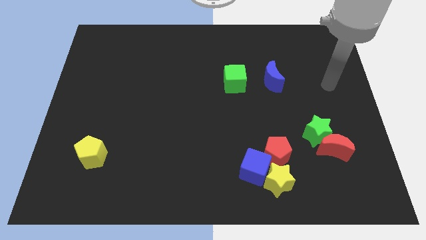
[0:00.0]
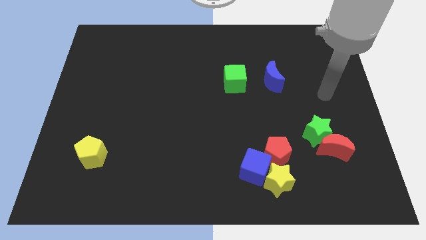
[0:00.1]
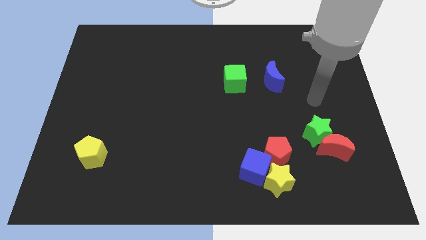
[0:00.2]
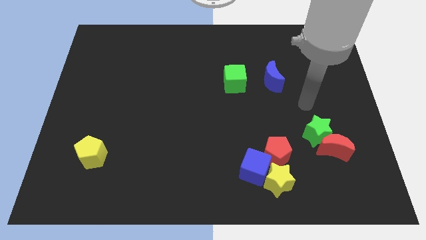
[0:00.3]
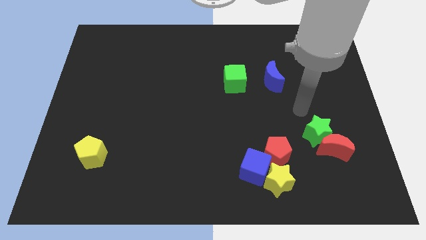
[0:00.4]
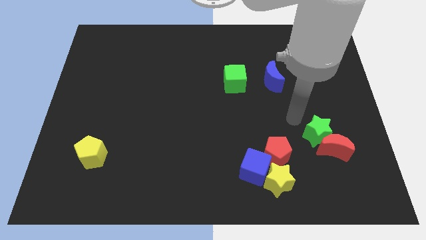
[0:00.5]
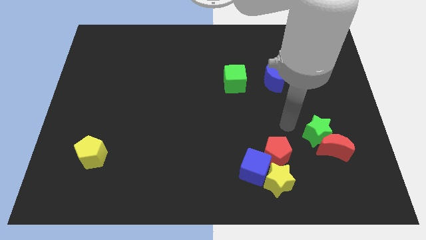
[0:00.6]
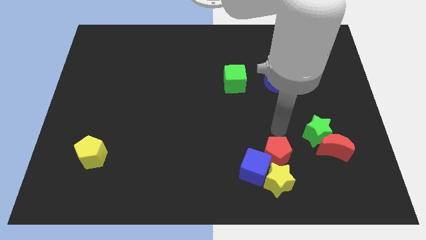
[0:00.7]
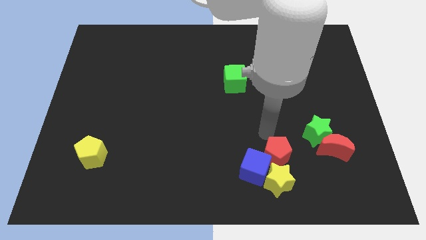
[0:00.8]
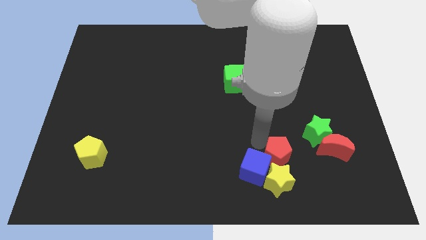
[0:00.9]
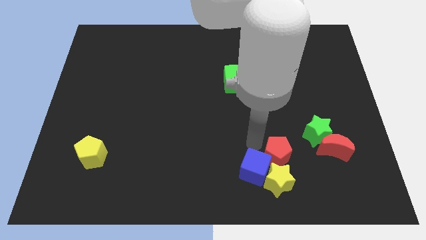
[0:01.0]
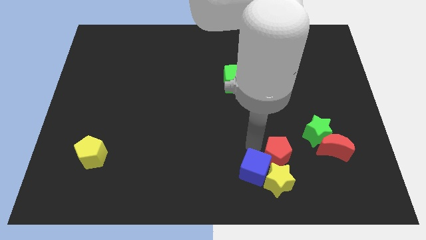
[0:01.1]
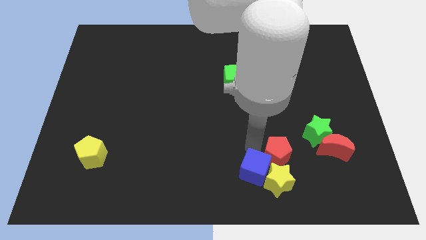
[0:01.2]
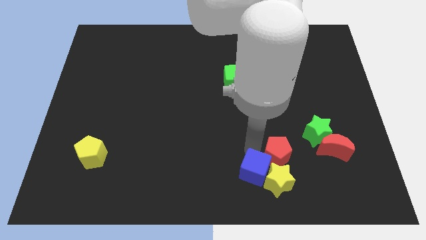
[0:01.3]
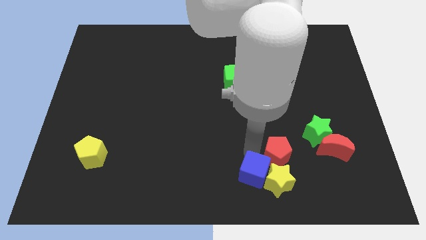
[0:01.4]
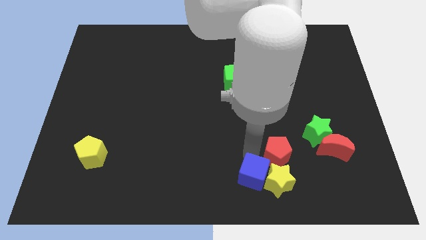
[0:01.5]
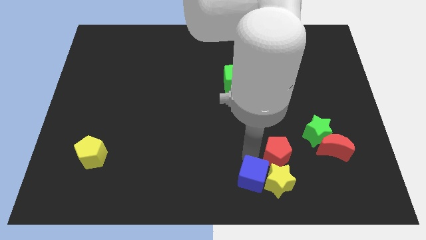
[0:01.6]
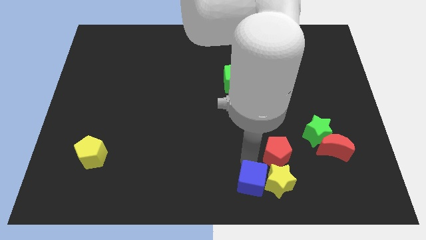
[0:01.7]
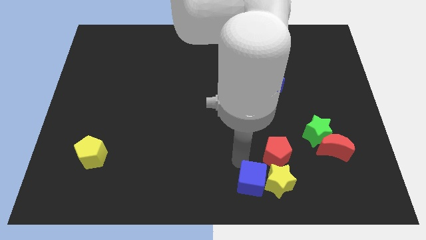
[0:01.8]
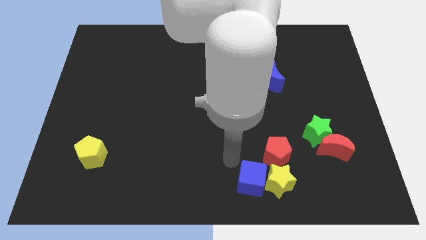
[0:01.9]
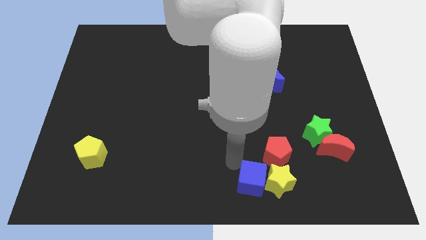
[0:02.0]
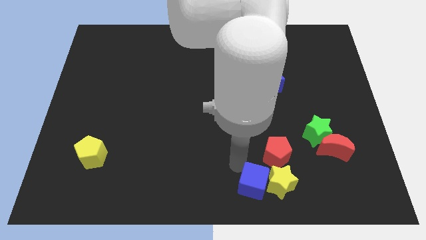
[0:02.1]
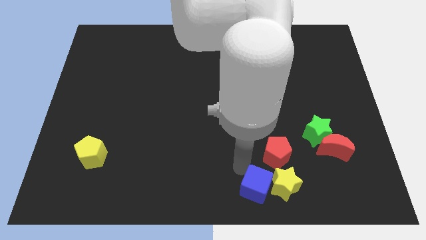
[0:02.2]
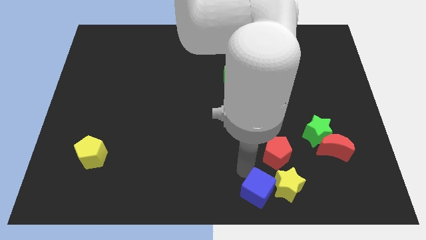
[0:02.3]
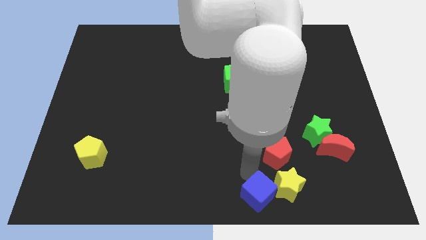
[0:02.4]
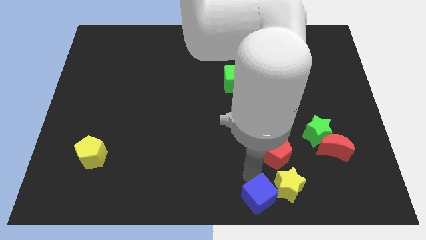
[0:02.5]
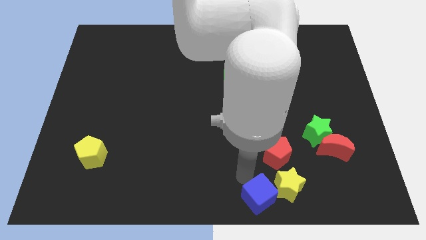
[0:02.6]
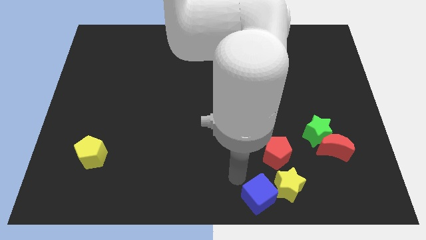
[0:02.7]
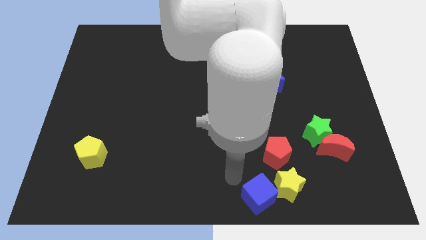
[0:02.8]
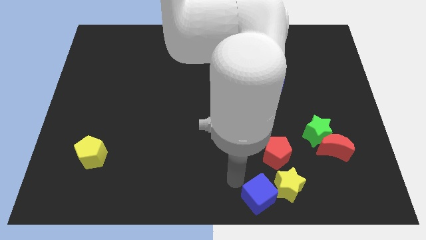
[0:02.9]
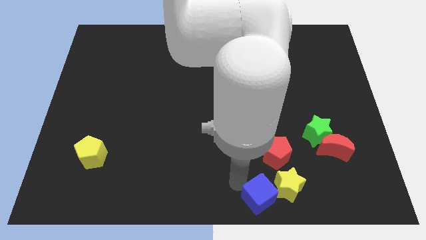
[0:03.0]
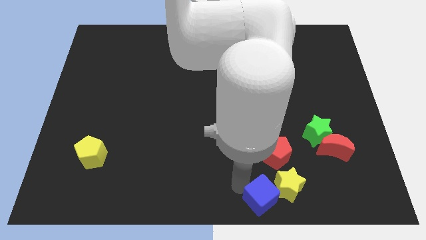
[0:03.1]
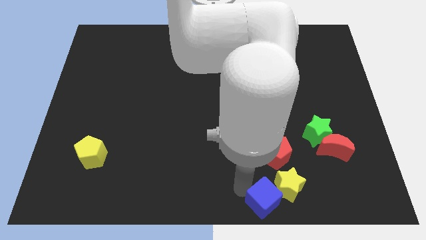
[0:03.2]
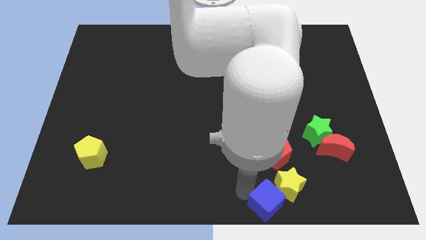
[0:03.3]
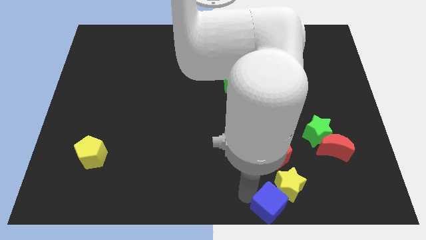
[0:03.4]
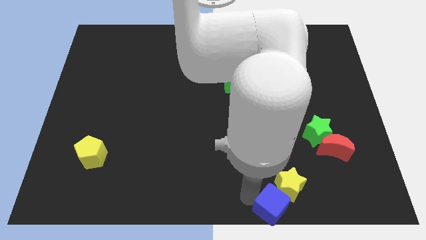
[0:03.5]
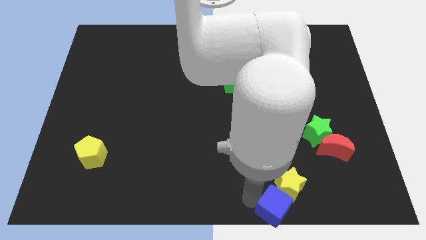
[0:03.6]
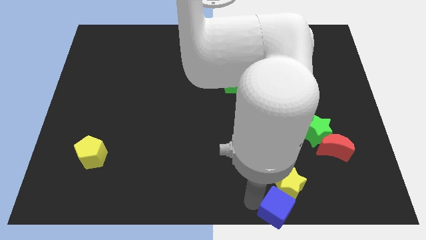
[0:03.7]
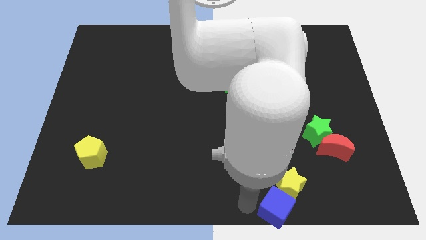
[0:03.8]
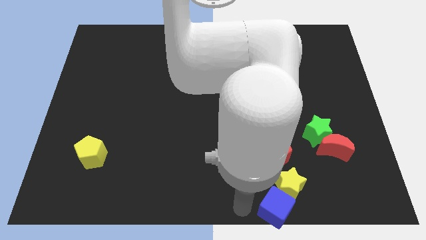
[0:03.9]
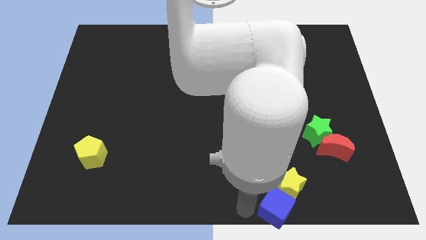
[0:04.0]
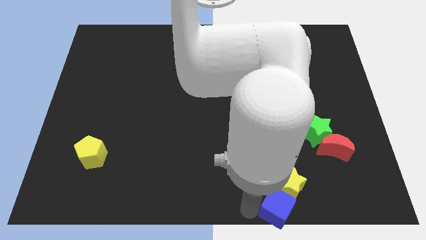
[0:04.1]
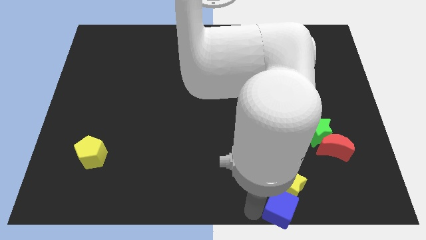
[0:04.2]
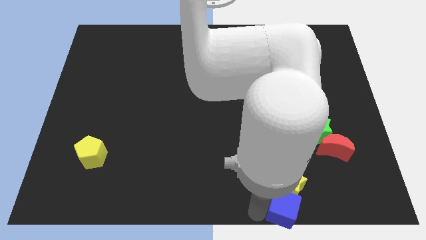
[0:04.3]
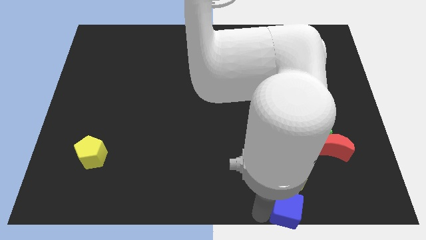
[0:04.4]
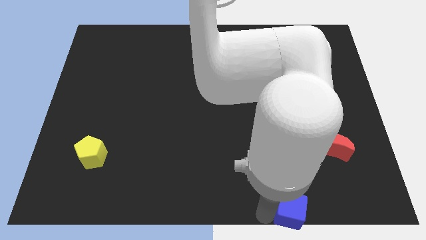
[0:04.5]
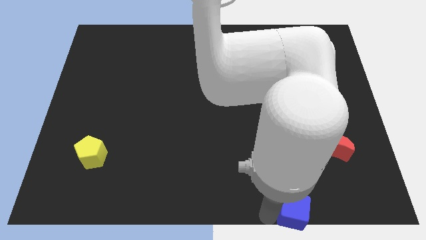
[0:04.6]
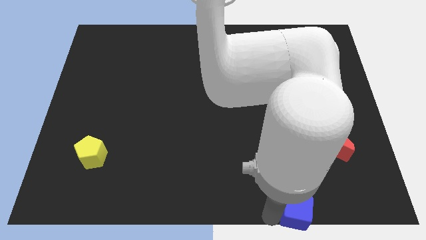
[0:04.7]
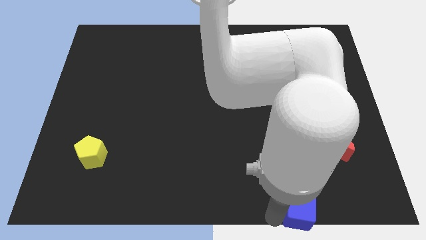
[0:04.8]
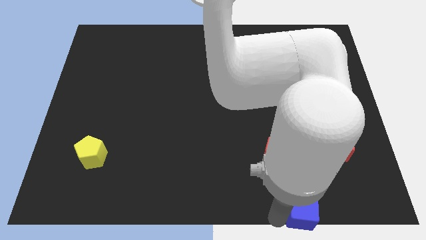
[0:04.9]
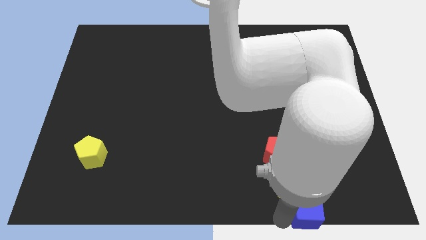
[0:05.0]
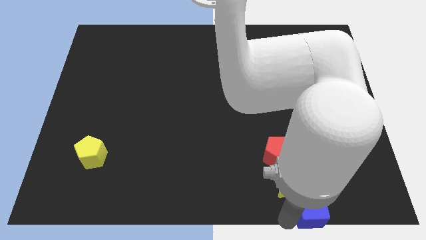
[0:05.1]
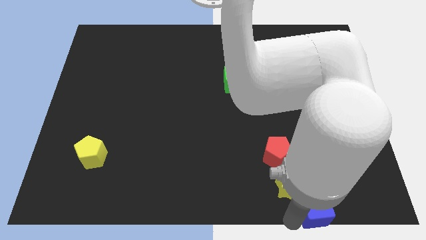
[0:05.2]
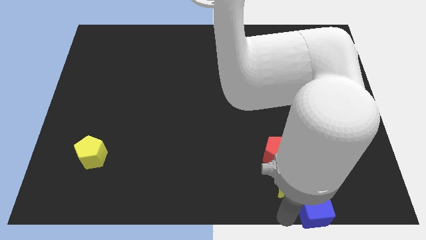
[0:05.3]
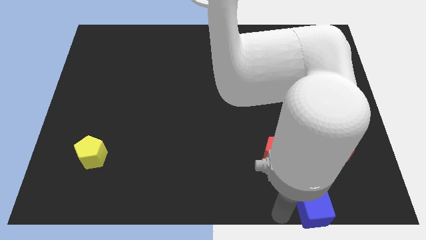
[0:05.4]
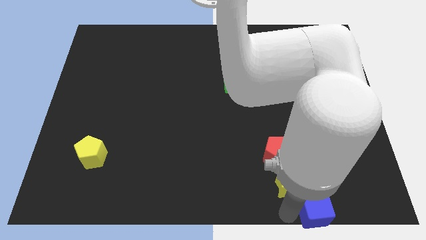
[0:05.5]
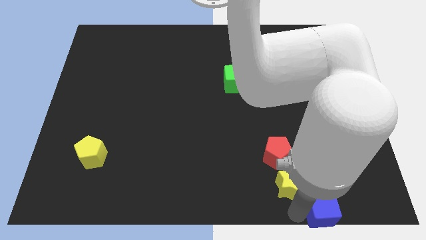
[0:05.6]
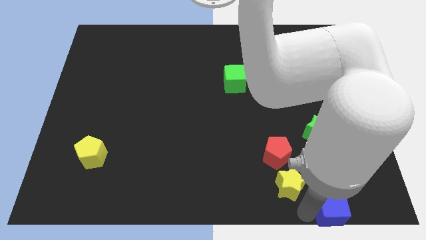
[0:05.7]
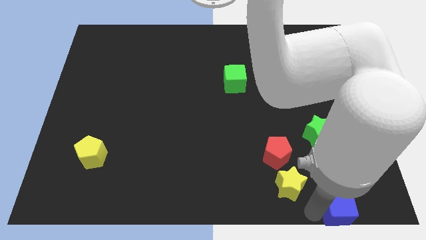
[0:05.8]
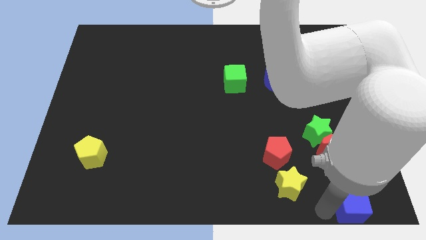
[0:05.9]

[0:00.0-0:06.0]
put the blue cube to the bottom right of the board

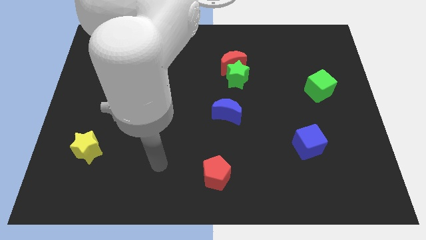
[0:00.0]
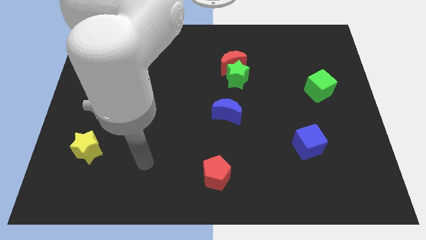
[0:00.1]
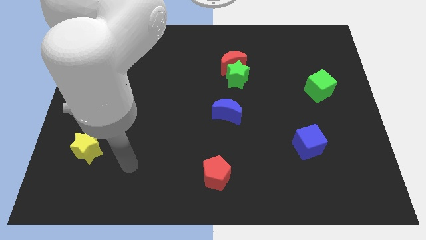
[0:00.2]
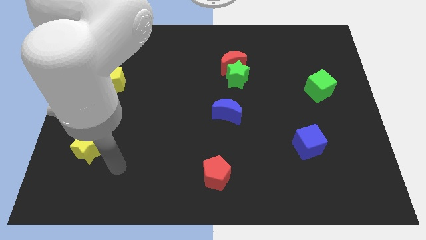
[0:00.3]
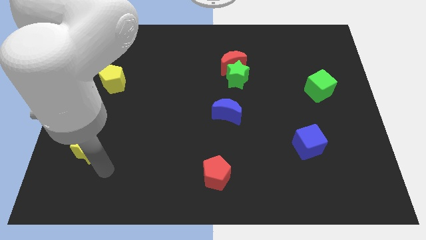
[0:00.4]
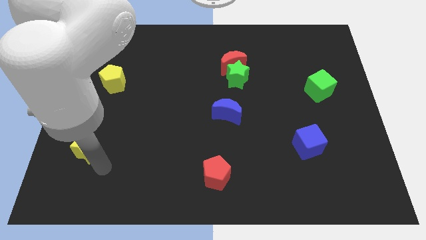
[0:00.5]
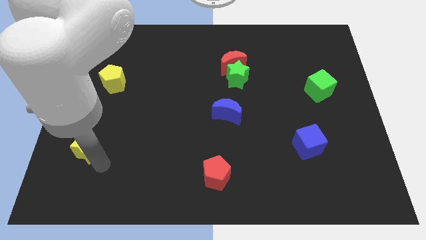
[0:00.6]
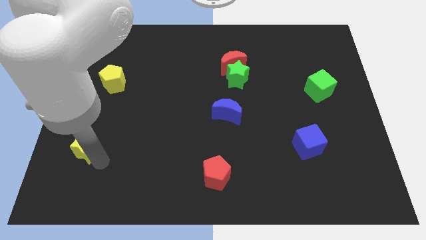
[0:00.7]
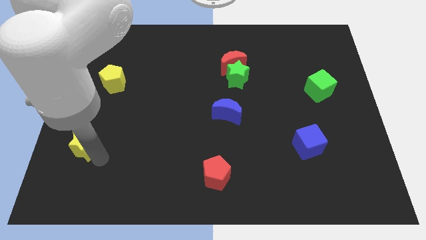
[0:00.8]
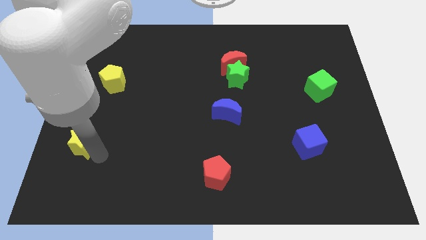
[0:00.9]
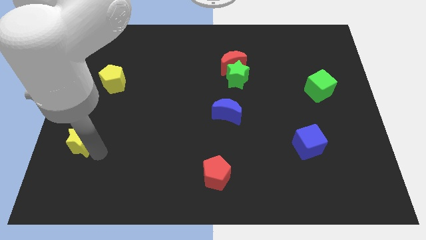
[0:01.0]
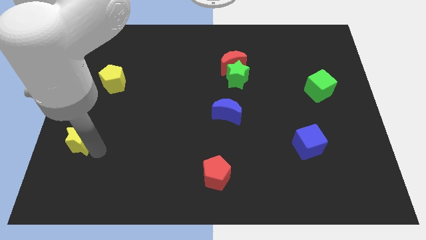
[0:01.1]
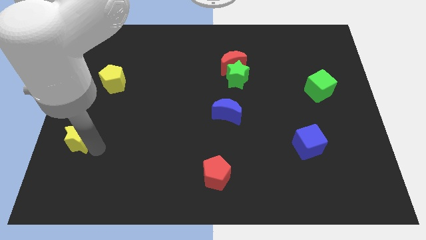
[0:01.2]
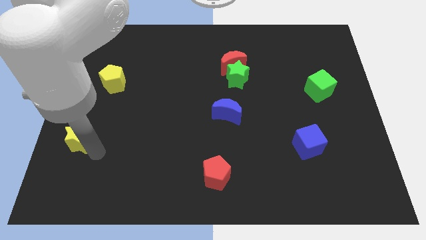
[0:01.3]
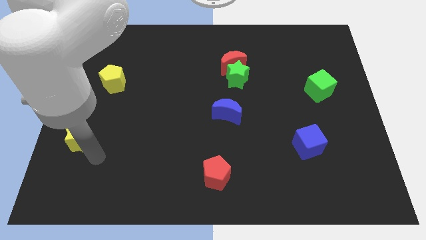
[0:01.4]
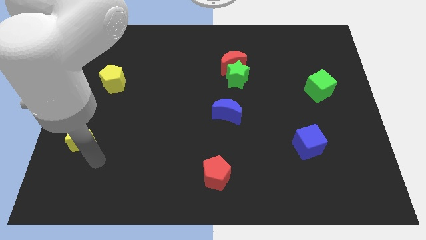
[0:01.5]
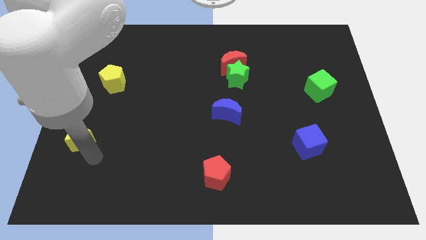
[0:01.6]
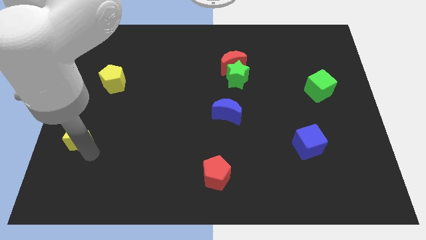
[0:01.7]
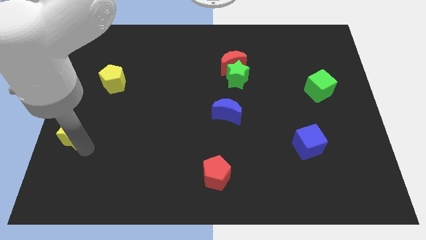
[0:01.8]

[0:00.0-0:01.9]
put the yellow star to the center left
